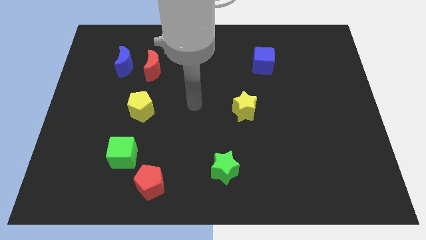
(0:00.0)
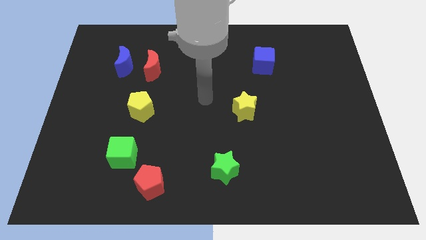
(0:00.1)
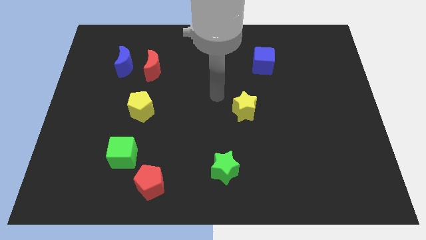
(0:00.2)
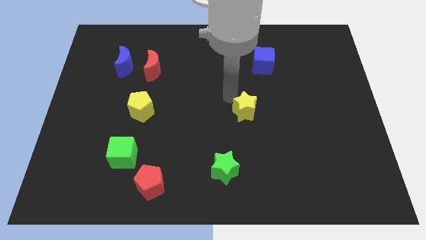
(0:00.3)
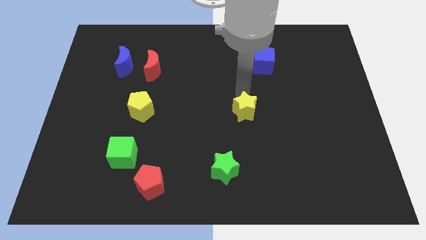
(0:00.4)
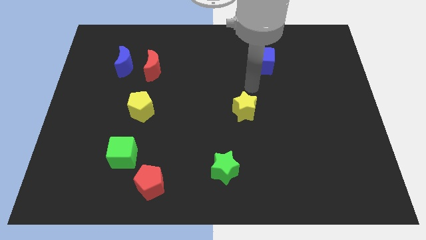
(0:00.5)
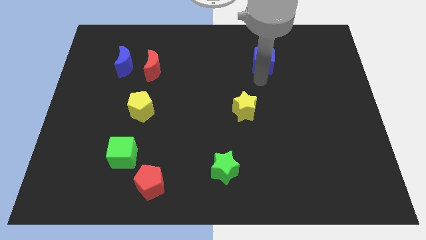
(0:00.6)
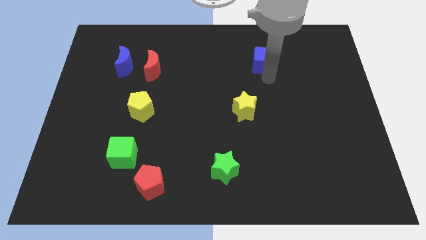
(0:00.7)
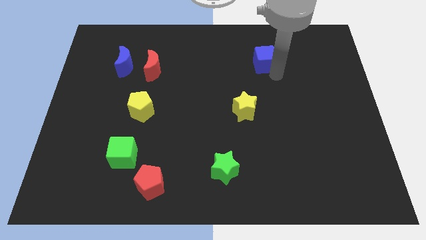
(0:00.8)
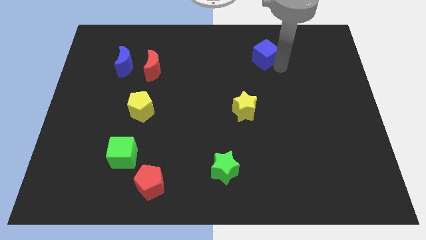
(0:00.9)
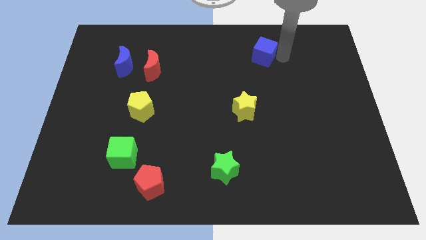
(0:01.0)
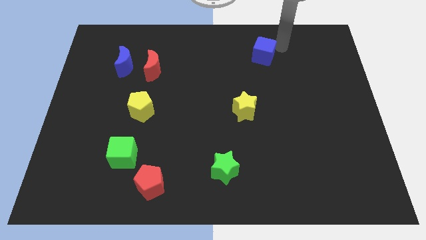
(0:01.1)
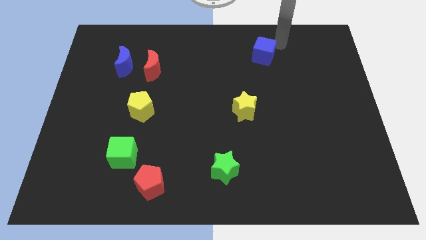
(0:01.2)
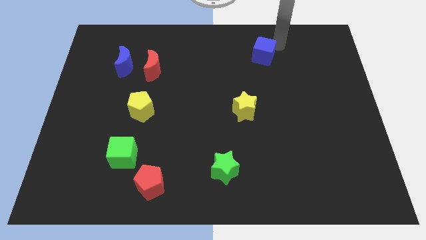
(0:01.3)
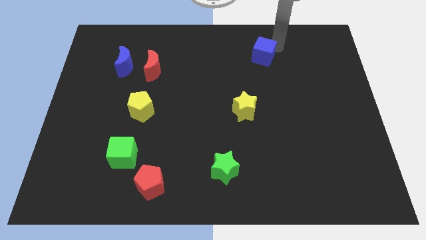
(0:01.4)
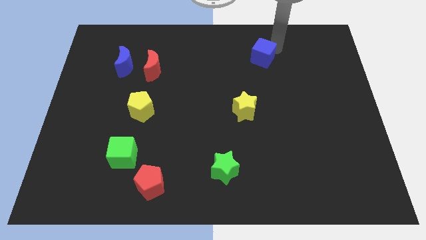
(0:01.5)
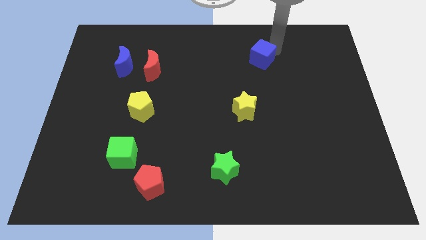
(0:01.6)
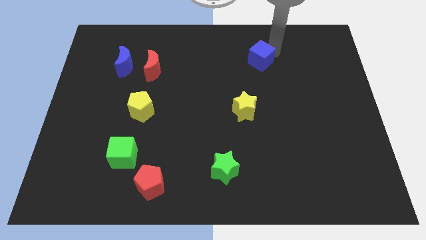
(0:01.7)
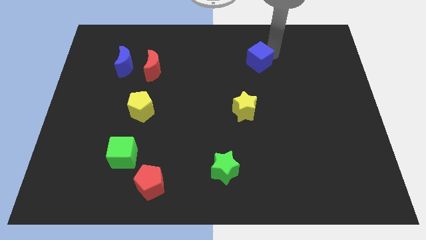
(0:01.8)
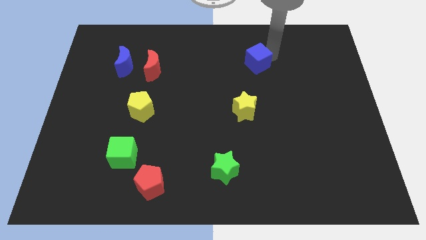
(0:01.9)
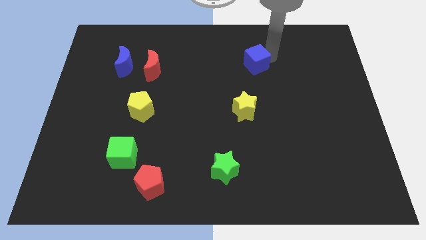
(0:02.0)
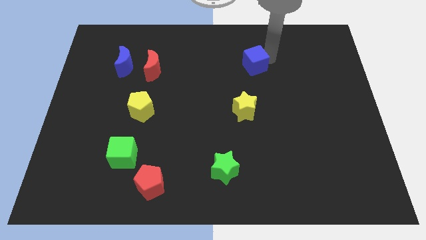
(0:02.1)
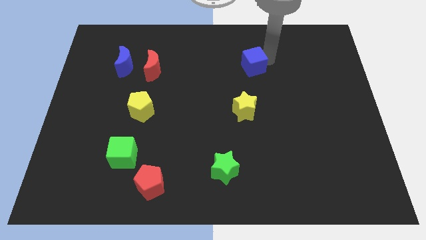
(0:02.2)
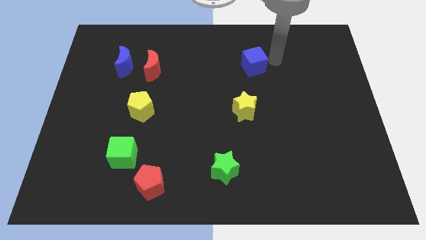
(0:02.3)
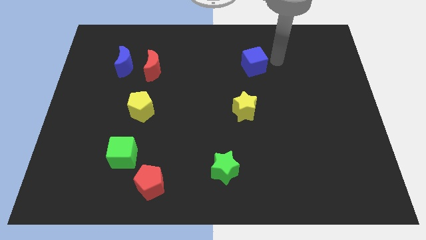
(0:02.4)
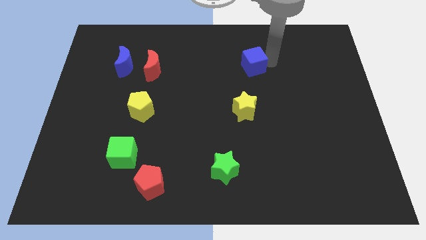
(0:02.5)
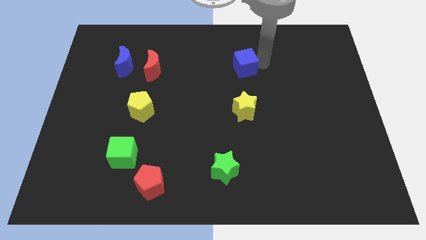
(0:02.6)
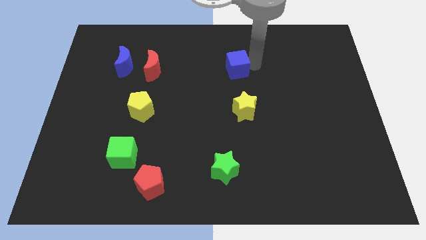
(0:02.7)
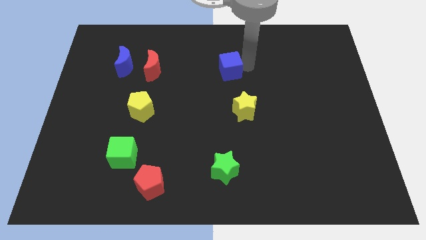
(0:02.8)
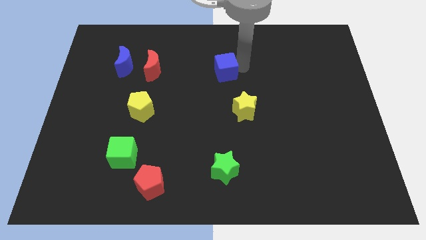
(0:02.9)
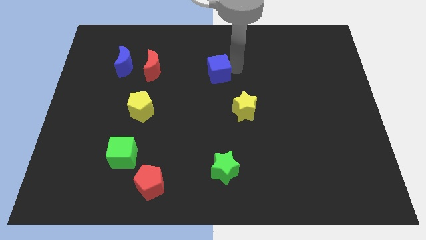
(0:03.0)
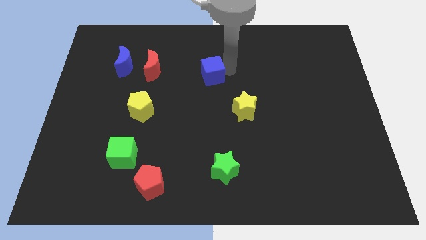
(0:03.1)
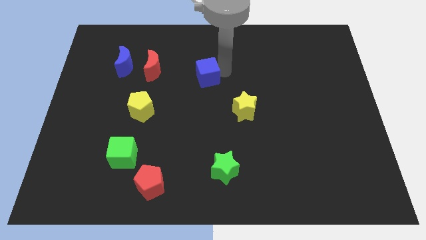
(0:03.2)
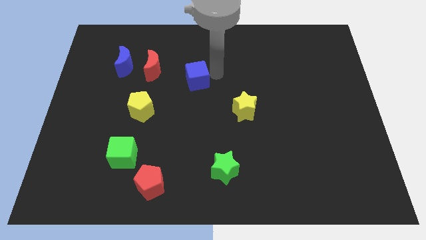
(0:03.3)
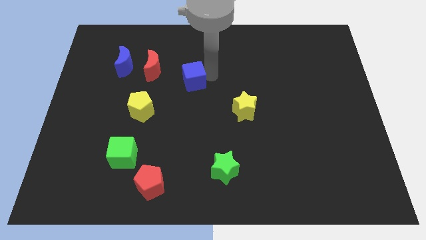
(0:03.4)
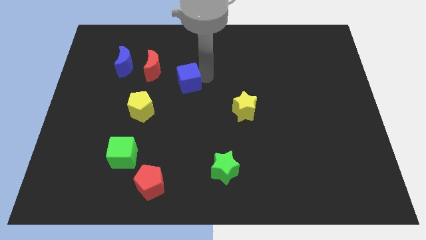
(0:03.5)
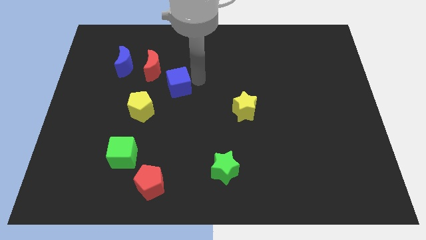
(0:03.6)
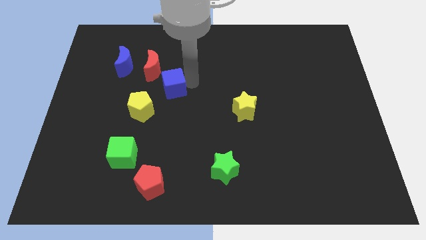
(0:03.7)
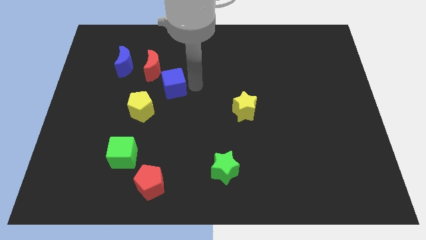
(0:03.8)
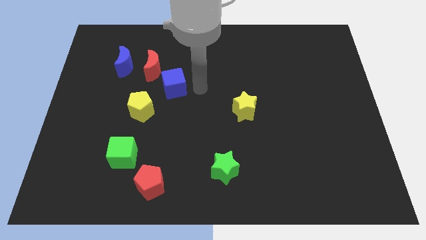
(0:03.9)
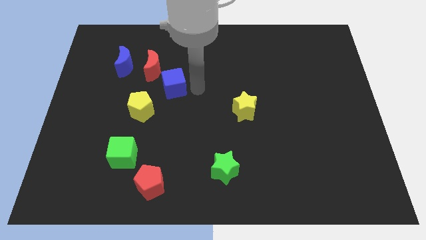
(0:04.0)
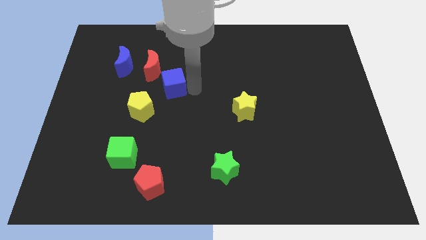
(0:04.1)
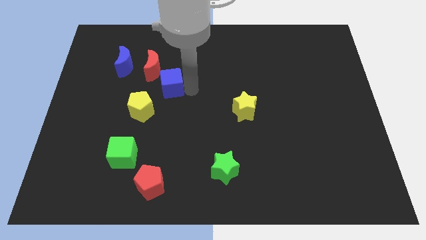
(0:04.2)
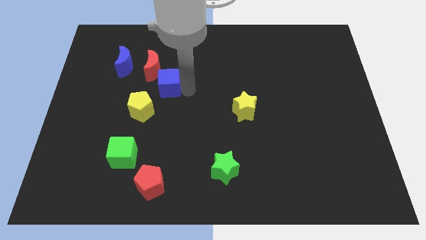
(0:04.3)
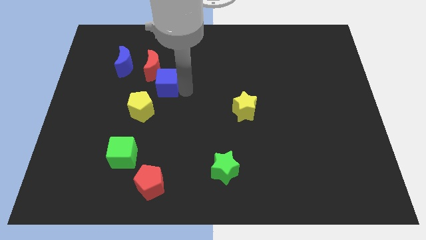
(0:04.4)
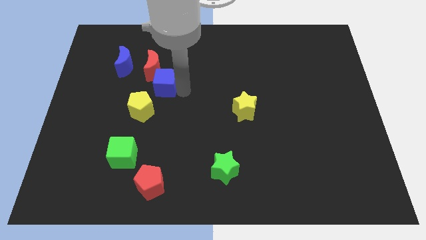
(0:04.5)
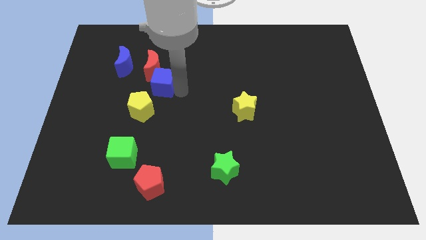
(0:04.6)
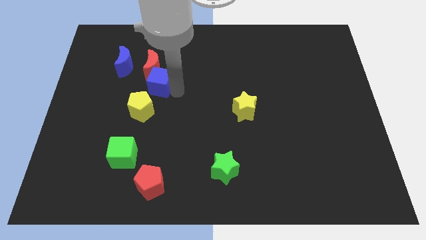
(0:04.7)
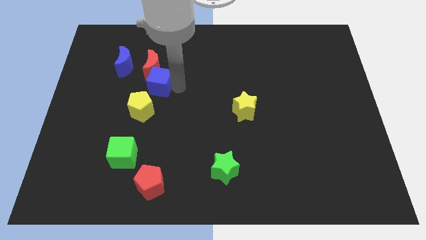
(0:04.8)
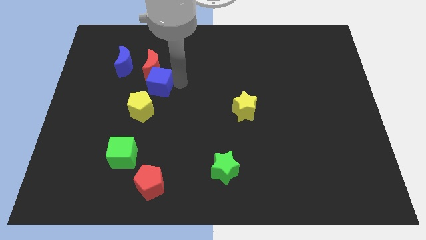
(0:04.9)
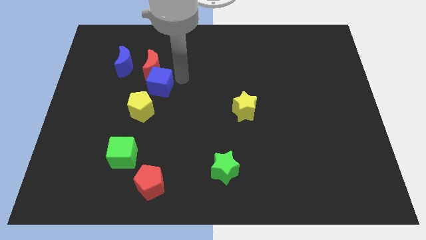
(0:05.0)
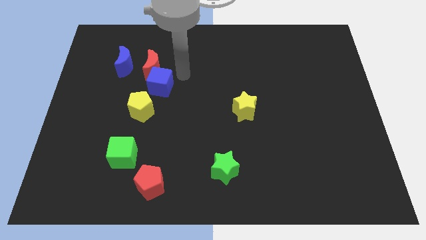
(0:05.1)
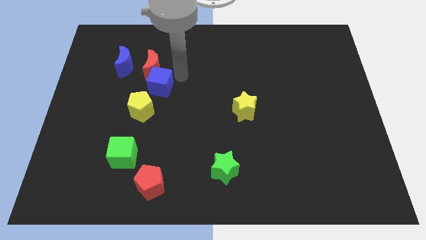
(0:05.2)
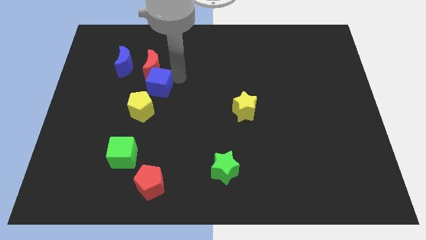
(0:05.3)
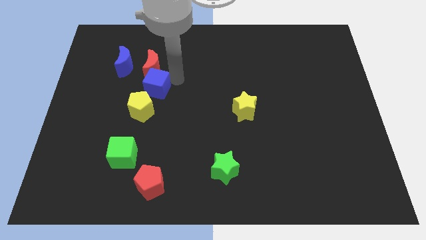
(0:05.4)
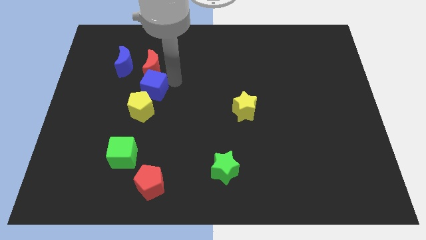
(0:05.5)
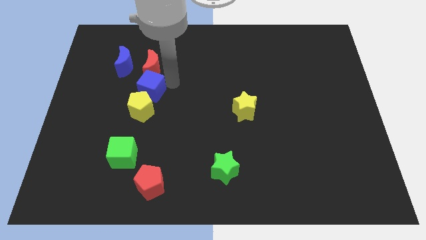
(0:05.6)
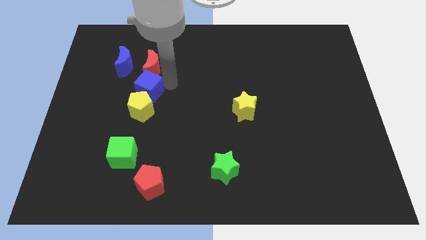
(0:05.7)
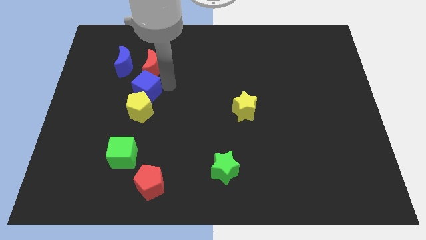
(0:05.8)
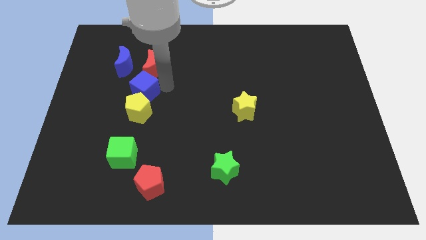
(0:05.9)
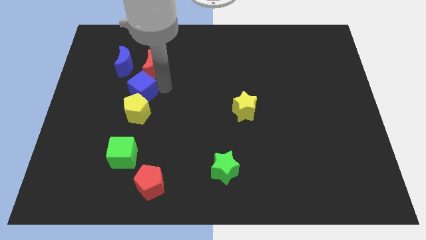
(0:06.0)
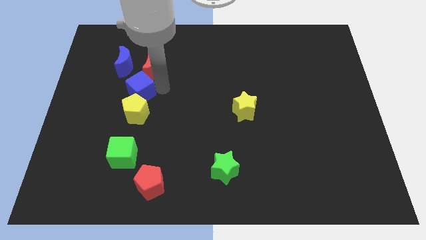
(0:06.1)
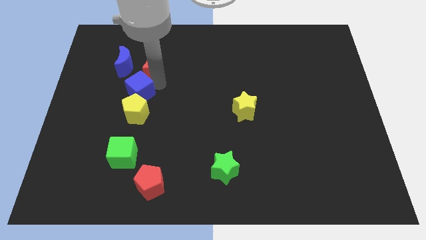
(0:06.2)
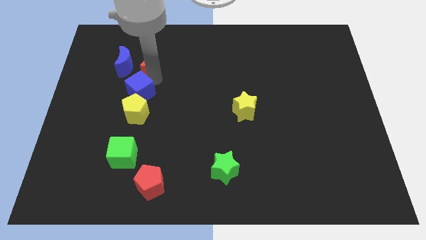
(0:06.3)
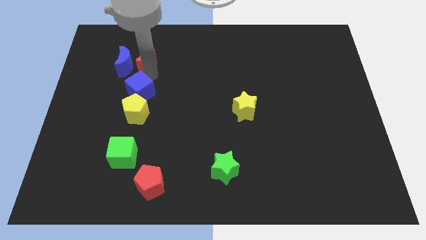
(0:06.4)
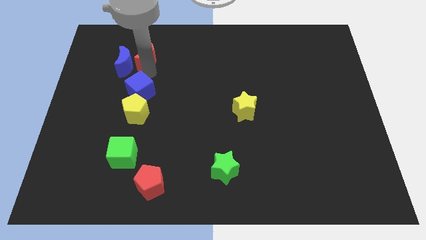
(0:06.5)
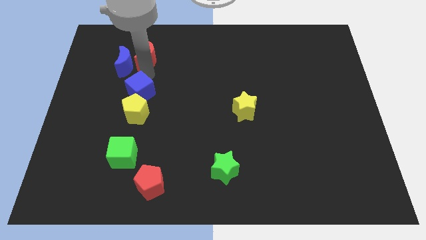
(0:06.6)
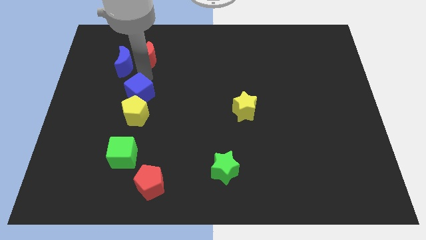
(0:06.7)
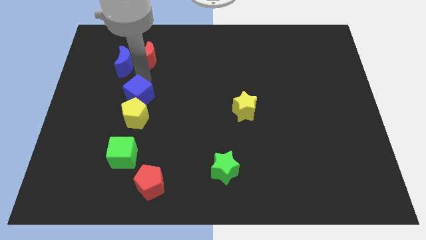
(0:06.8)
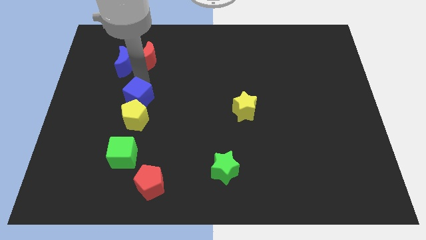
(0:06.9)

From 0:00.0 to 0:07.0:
slide the blue cube above the green cube

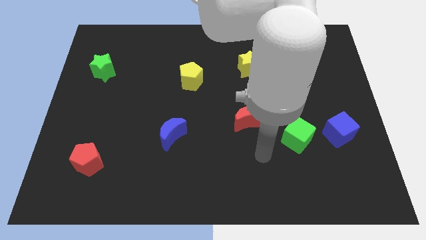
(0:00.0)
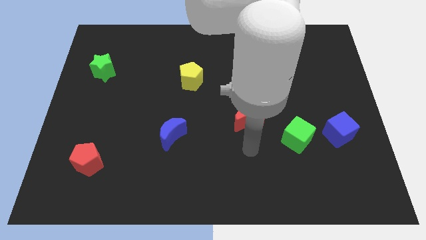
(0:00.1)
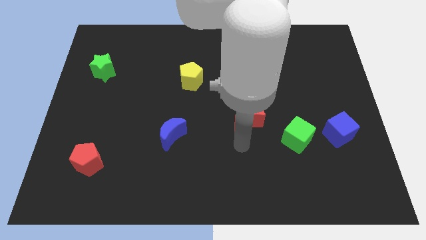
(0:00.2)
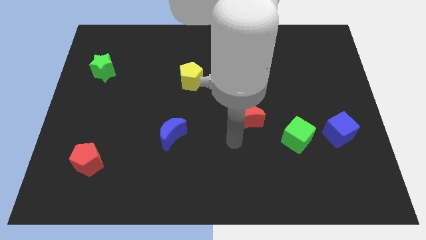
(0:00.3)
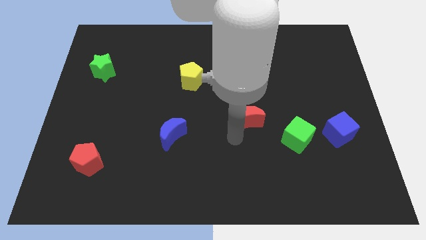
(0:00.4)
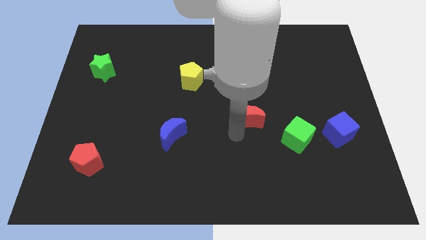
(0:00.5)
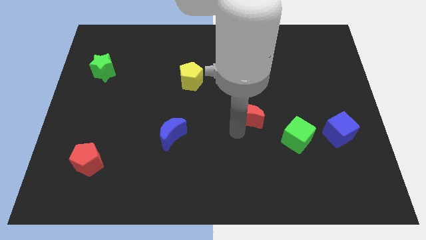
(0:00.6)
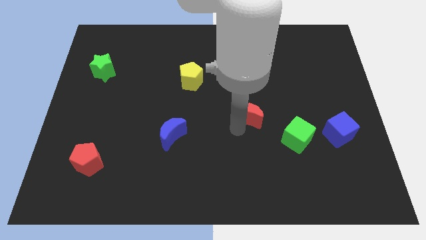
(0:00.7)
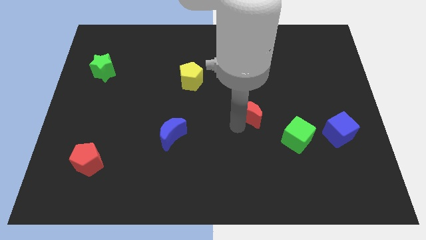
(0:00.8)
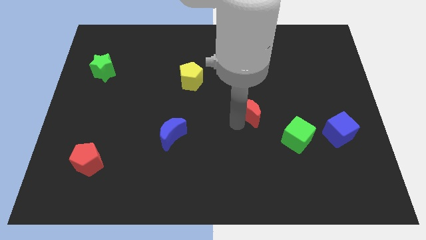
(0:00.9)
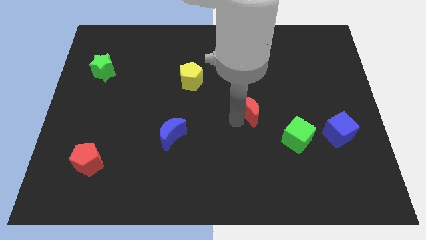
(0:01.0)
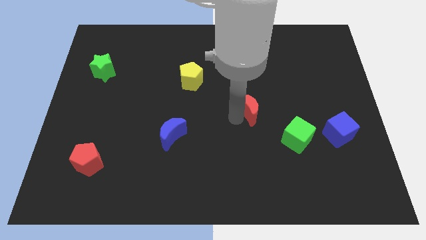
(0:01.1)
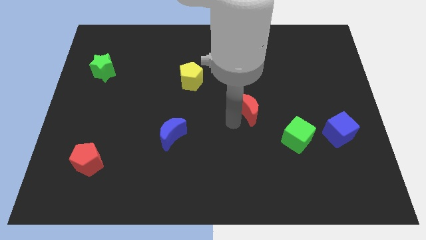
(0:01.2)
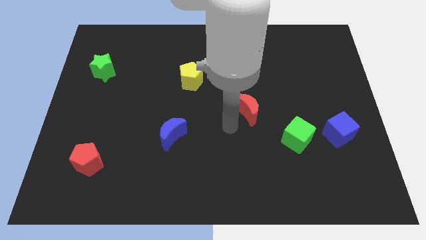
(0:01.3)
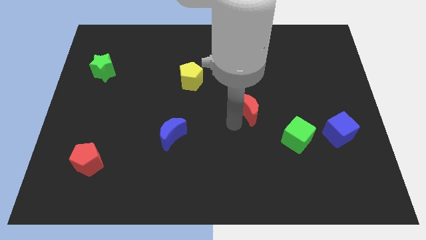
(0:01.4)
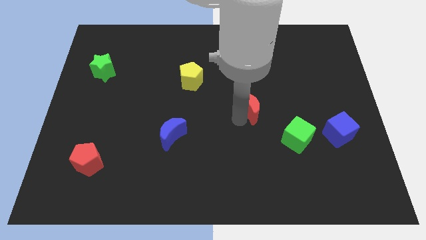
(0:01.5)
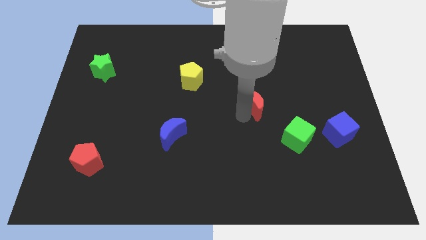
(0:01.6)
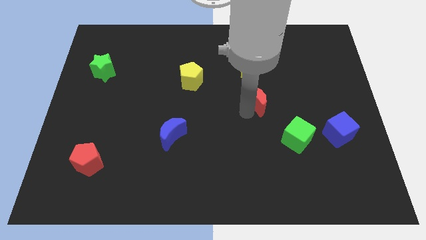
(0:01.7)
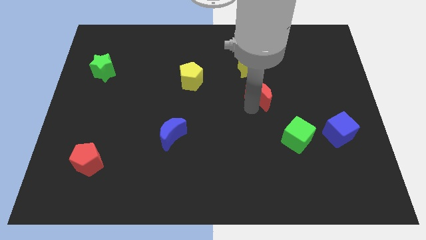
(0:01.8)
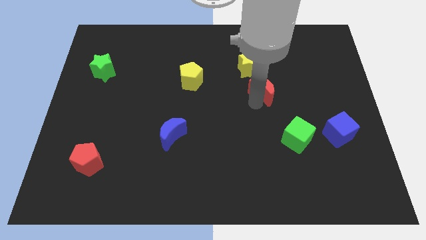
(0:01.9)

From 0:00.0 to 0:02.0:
slide the red moon to the bottom right of the yellow star
